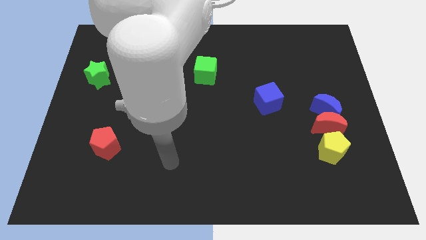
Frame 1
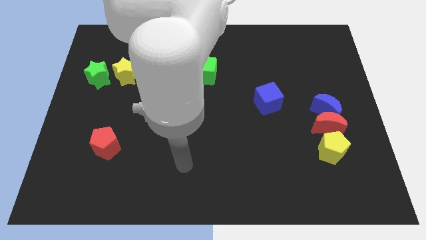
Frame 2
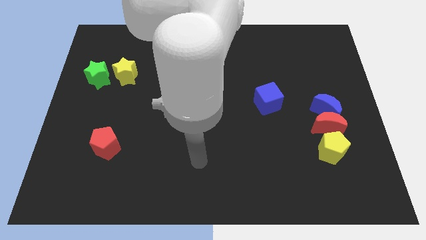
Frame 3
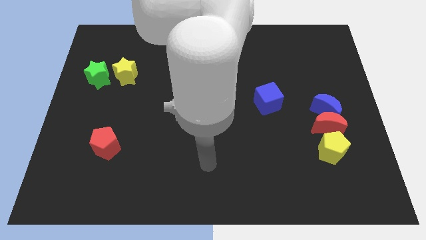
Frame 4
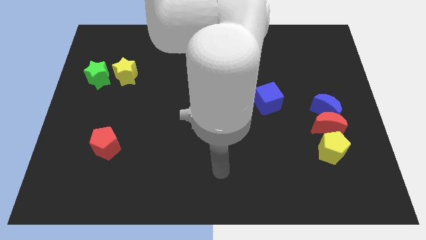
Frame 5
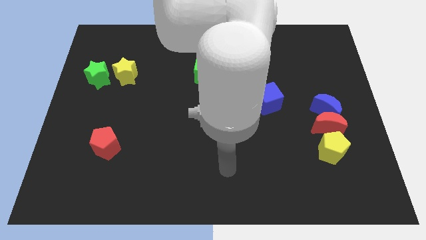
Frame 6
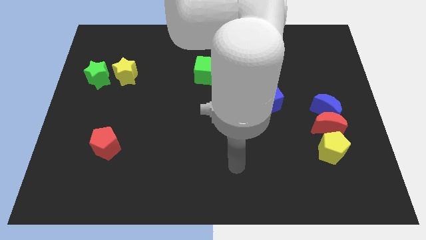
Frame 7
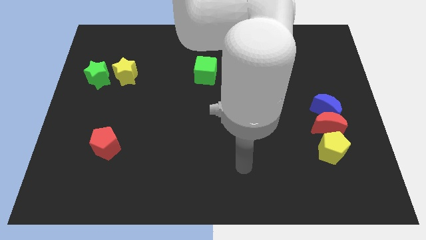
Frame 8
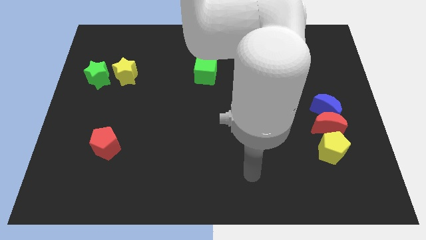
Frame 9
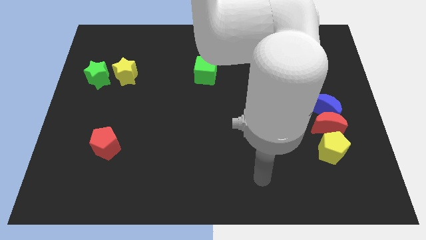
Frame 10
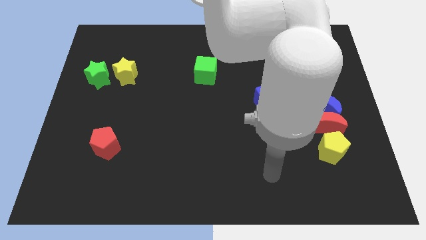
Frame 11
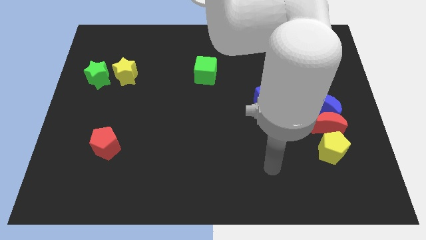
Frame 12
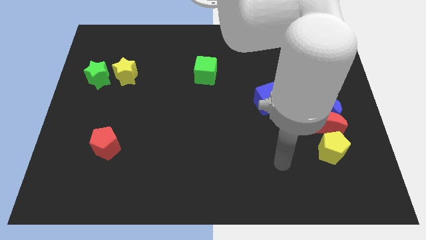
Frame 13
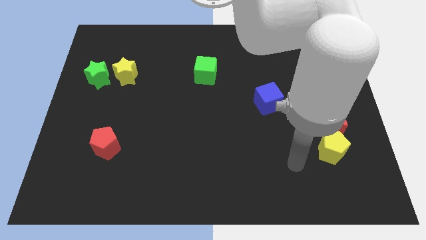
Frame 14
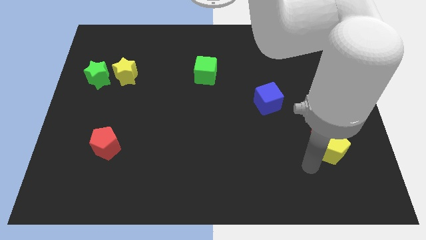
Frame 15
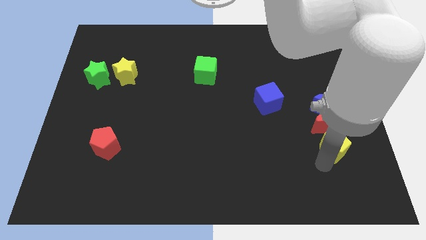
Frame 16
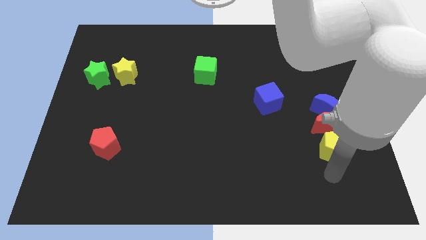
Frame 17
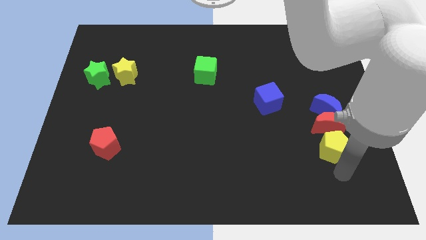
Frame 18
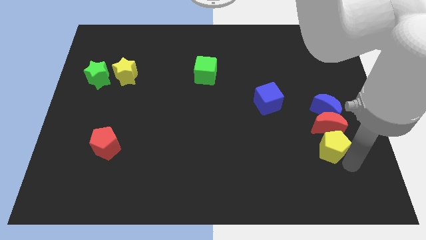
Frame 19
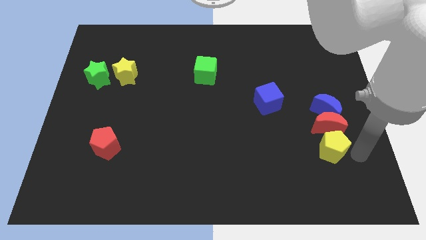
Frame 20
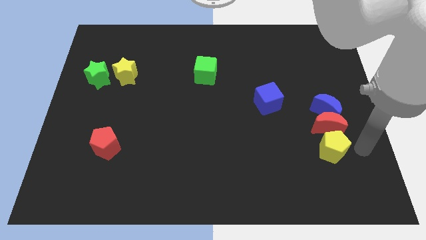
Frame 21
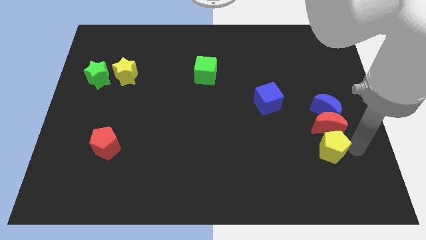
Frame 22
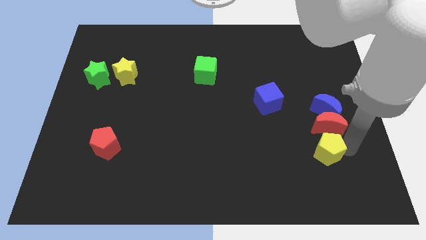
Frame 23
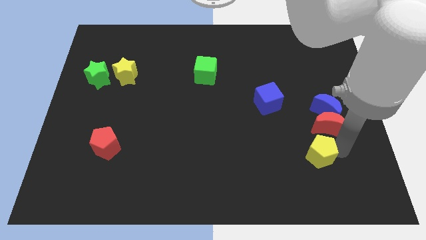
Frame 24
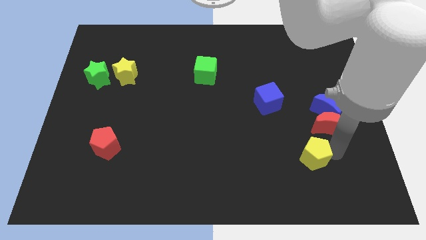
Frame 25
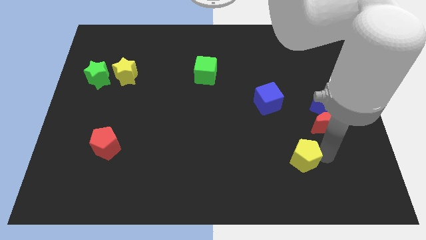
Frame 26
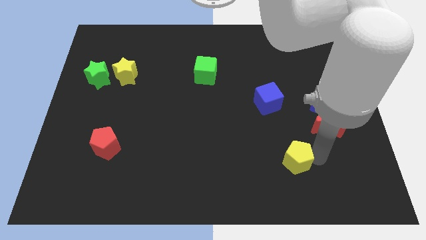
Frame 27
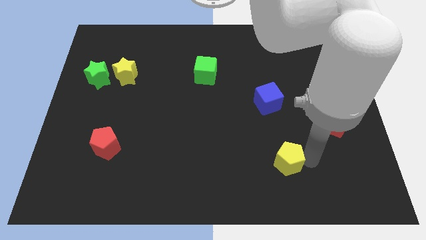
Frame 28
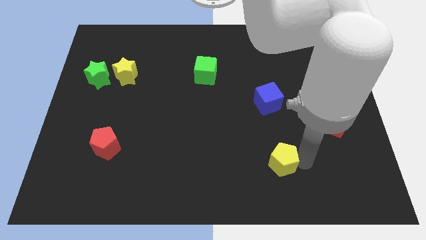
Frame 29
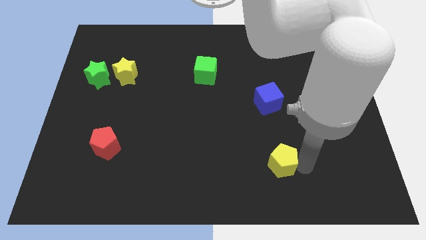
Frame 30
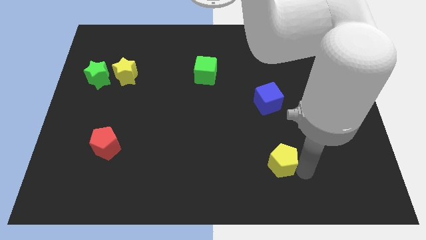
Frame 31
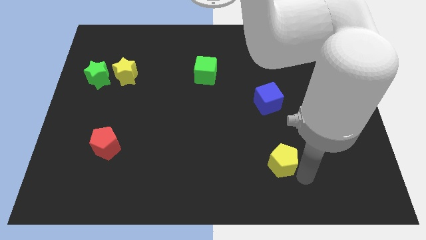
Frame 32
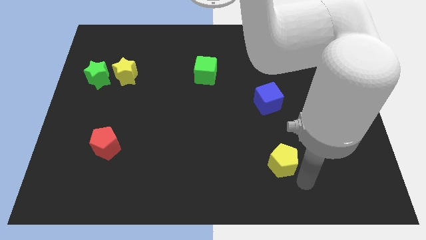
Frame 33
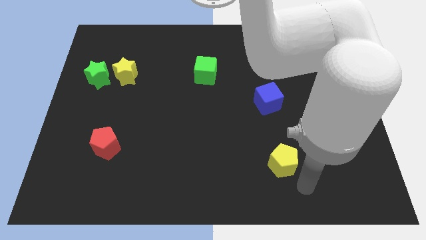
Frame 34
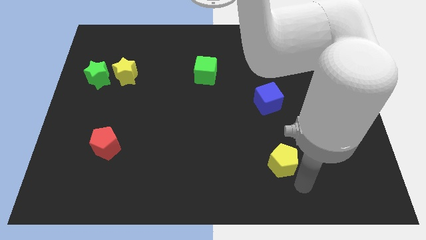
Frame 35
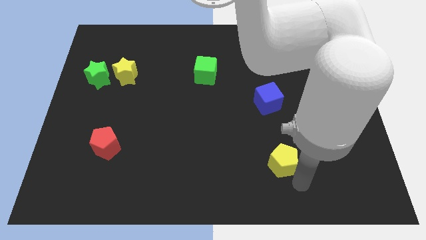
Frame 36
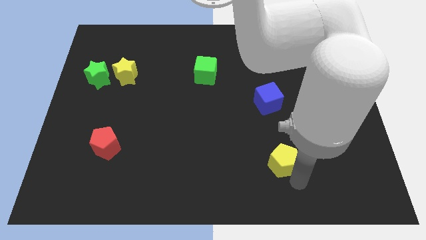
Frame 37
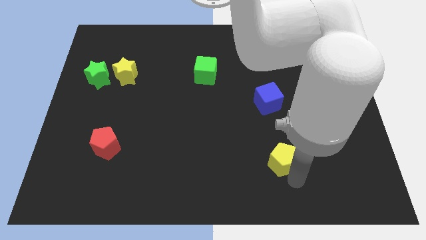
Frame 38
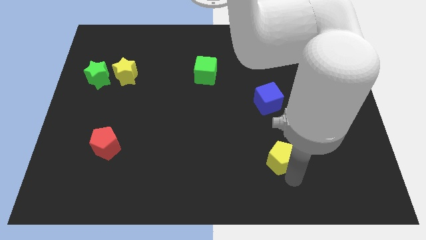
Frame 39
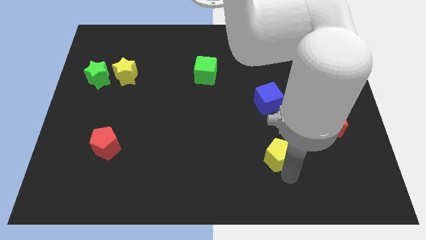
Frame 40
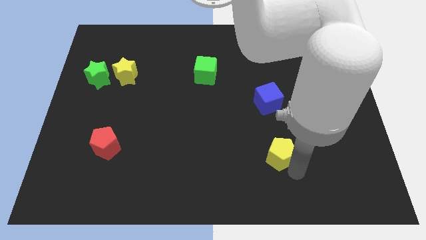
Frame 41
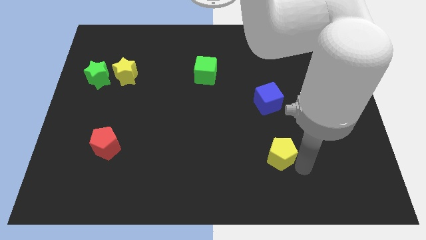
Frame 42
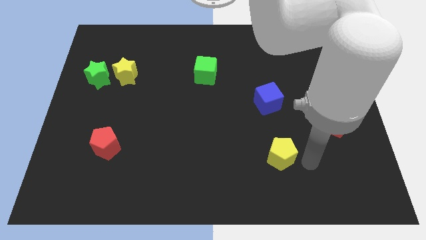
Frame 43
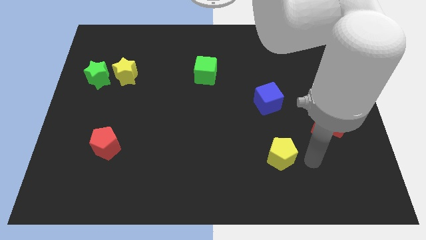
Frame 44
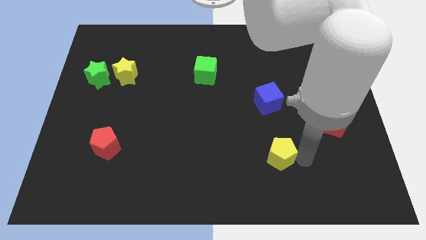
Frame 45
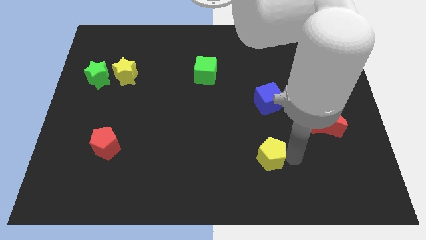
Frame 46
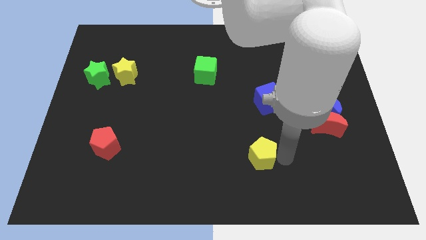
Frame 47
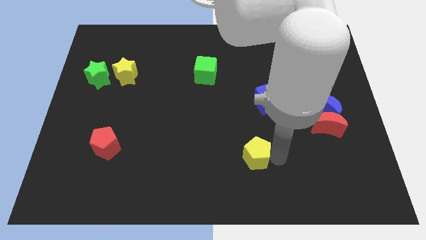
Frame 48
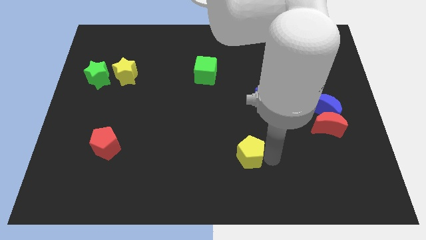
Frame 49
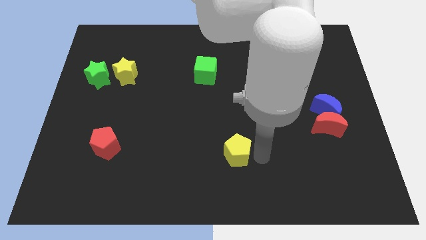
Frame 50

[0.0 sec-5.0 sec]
slide the yellow pentagon left

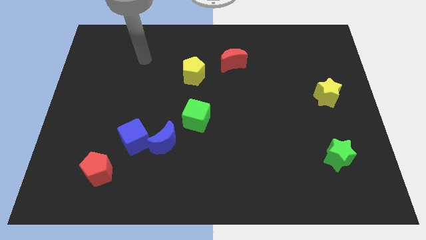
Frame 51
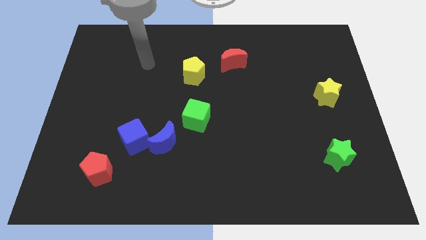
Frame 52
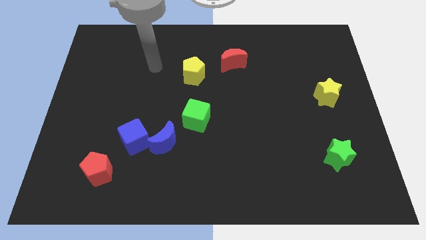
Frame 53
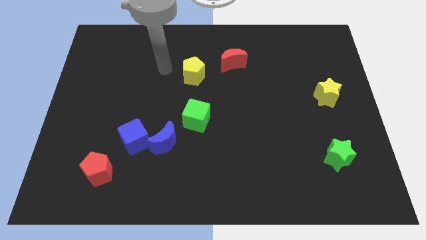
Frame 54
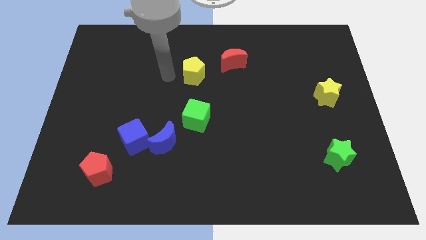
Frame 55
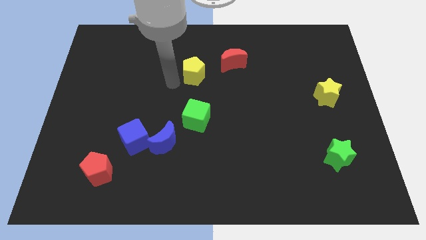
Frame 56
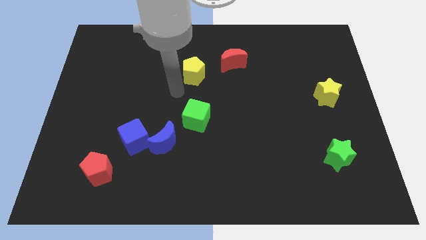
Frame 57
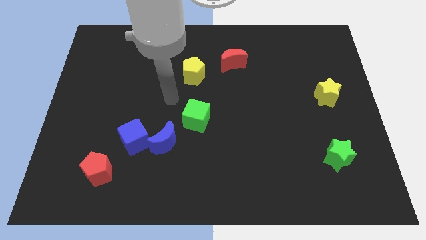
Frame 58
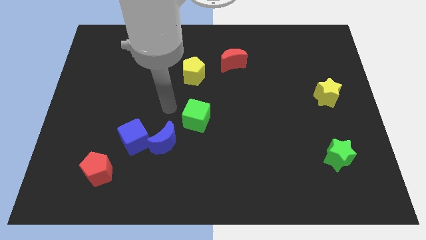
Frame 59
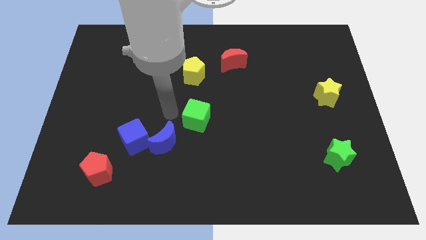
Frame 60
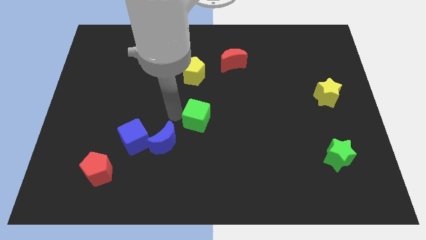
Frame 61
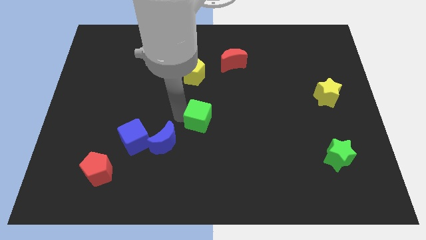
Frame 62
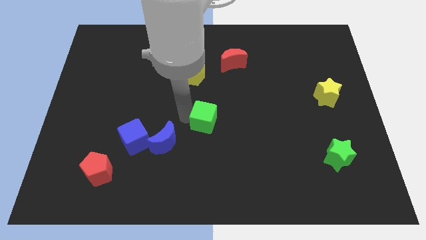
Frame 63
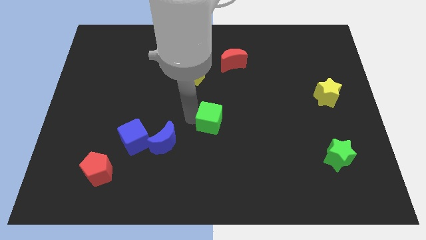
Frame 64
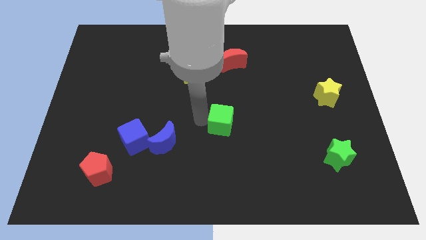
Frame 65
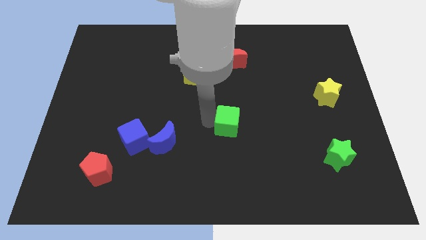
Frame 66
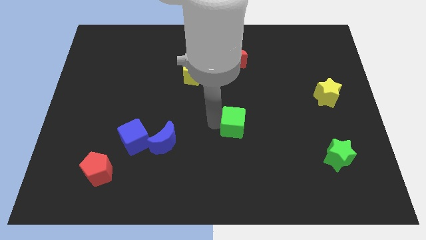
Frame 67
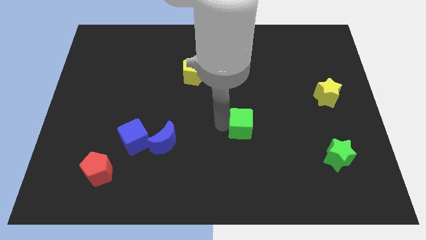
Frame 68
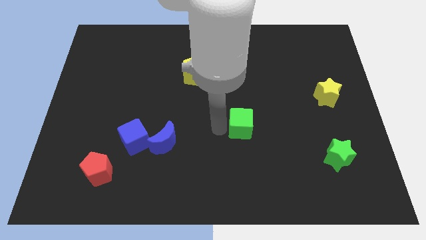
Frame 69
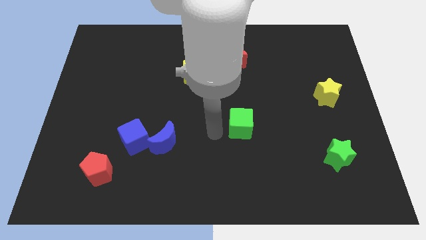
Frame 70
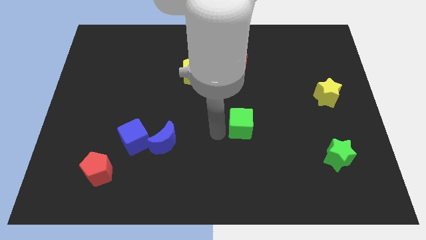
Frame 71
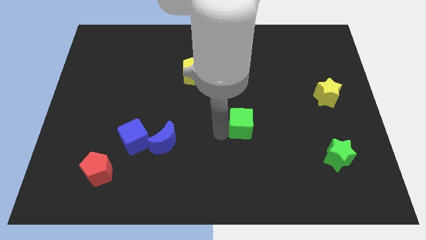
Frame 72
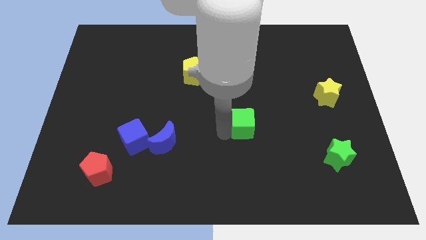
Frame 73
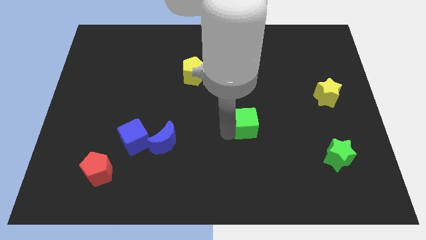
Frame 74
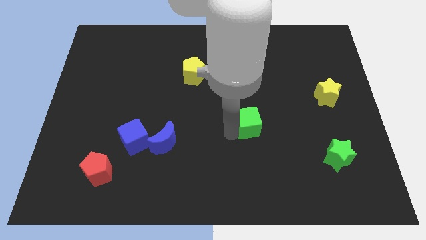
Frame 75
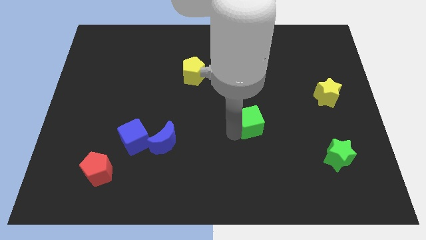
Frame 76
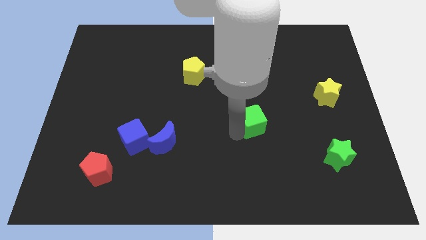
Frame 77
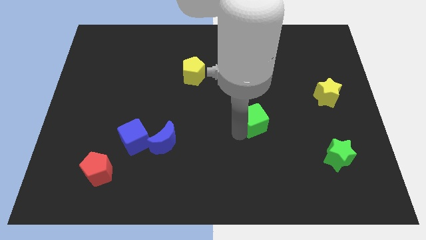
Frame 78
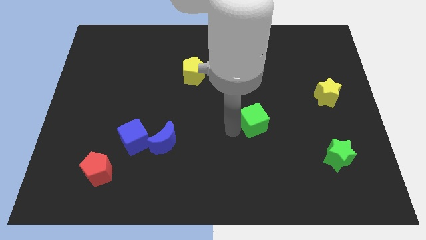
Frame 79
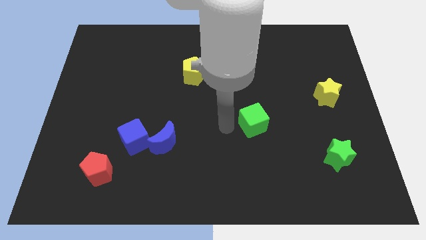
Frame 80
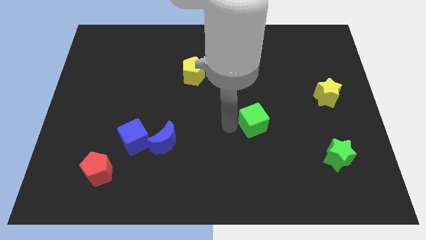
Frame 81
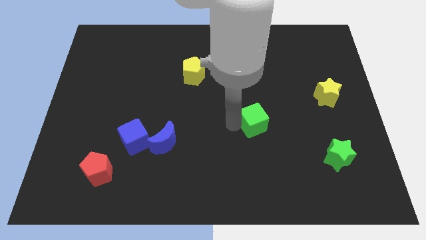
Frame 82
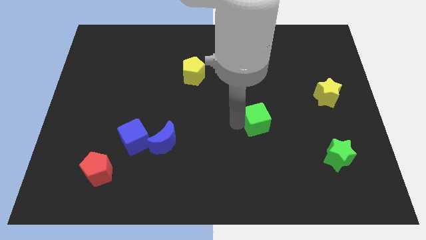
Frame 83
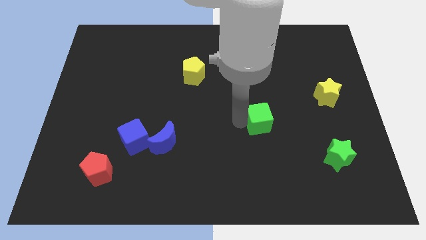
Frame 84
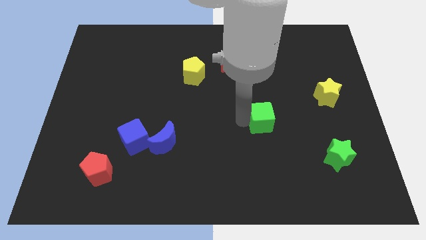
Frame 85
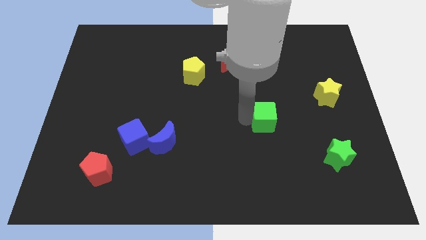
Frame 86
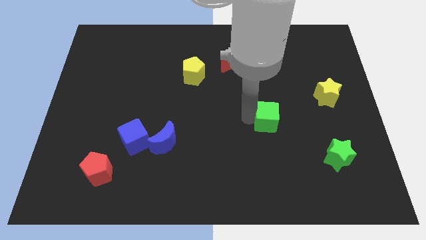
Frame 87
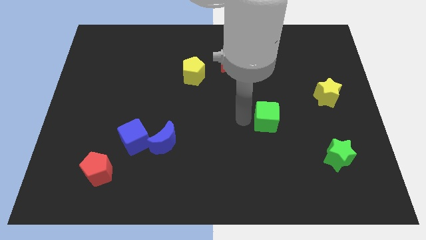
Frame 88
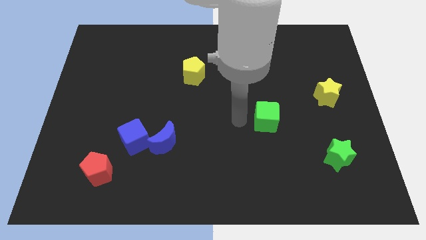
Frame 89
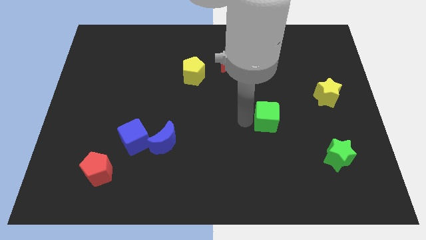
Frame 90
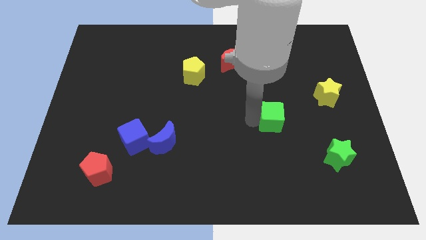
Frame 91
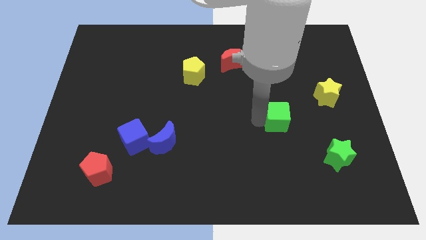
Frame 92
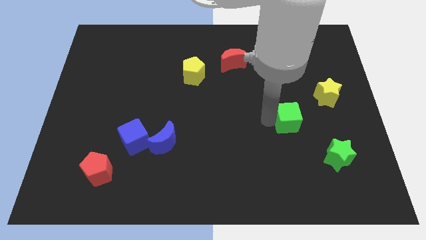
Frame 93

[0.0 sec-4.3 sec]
slide the green cube right
